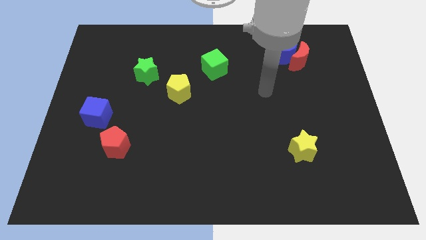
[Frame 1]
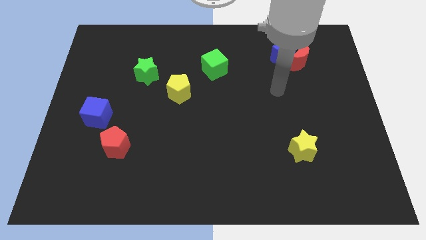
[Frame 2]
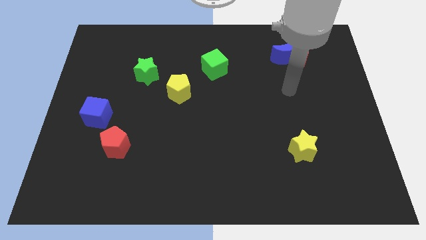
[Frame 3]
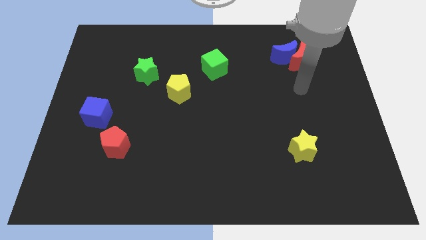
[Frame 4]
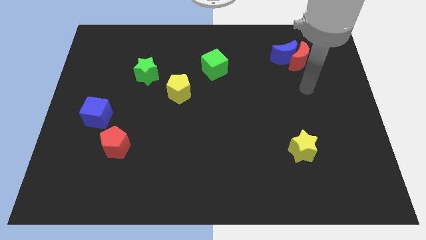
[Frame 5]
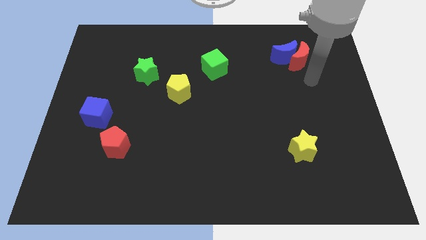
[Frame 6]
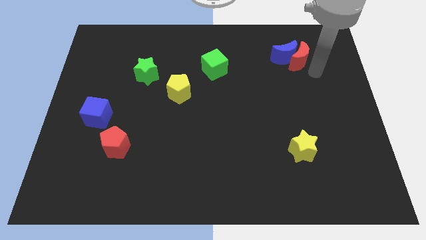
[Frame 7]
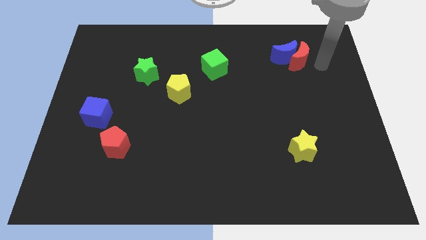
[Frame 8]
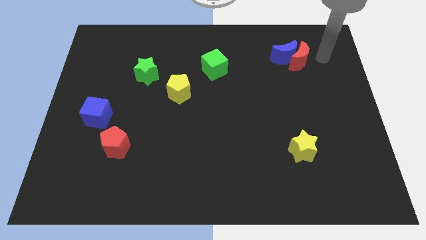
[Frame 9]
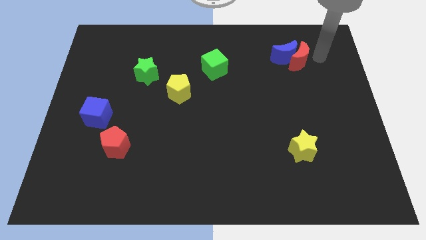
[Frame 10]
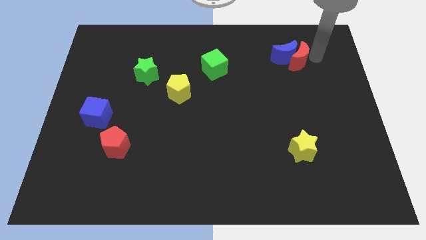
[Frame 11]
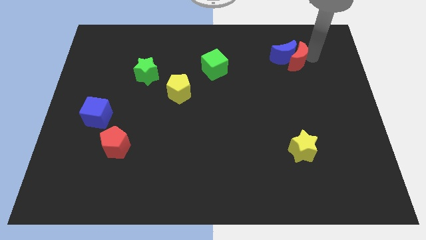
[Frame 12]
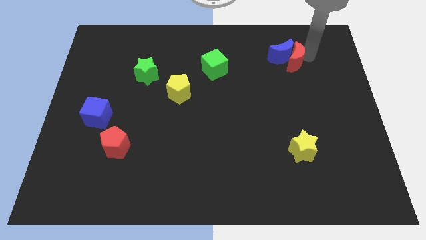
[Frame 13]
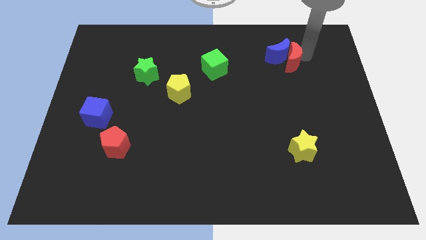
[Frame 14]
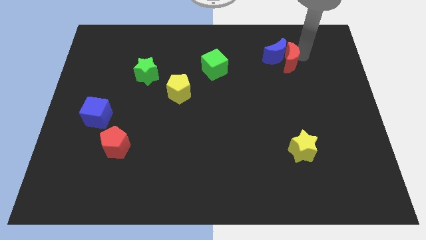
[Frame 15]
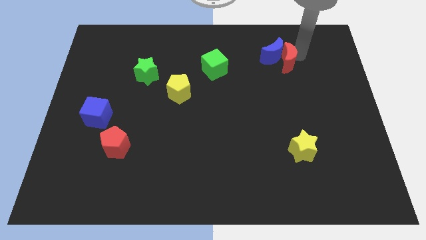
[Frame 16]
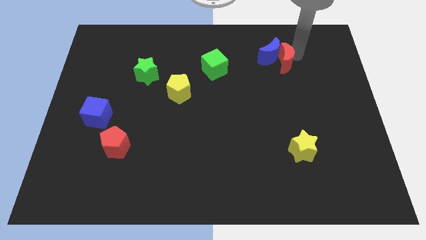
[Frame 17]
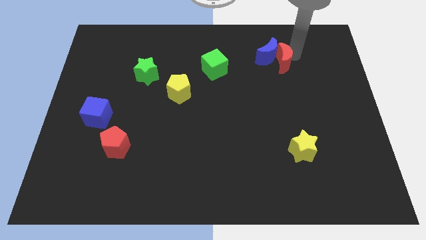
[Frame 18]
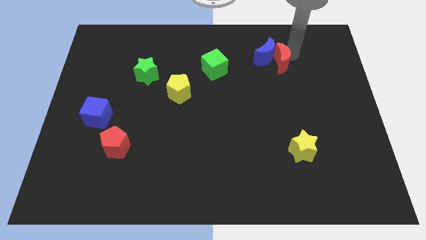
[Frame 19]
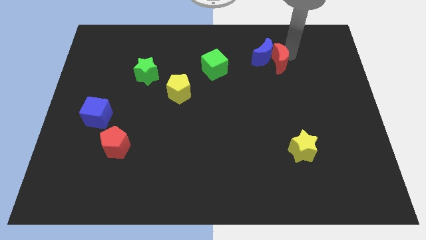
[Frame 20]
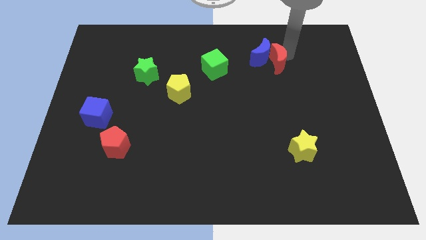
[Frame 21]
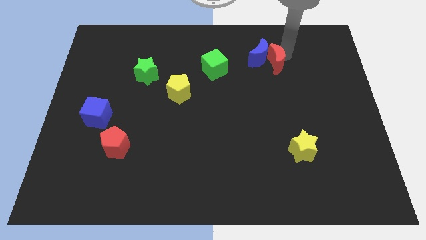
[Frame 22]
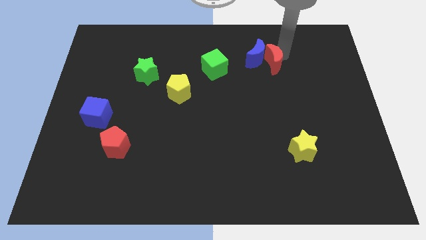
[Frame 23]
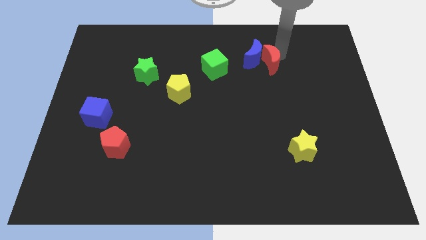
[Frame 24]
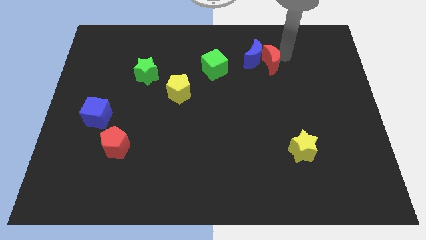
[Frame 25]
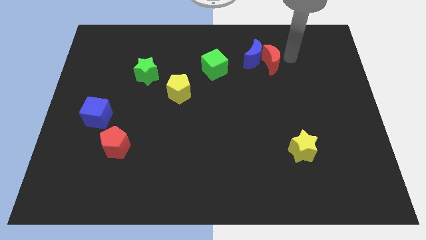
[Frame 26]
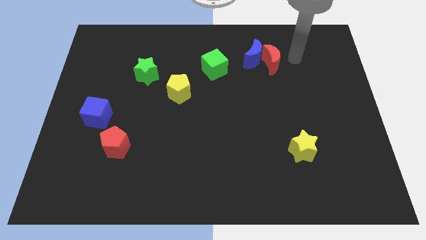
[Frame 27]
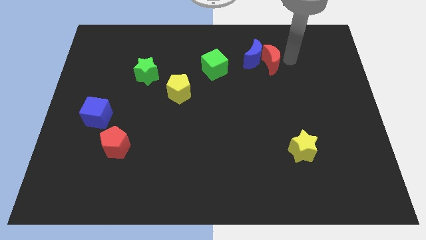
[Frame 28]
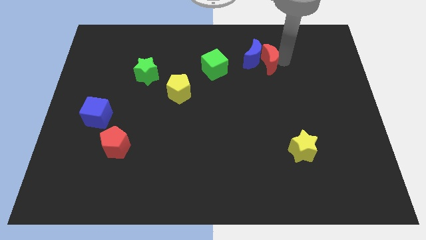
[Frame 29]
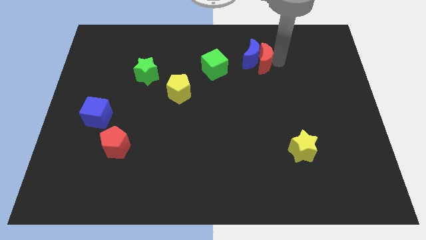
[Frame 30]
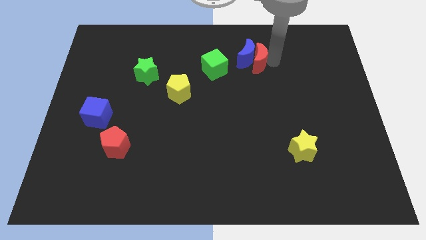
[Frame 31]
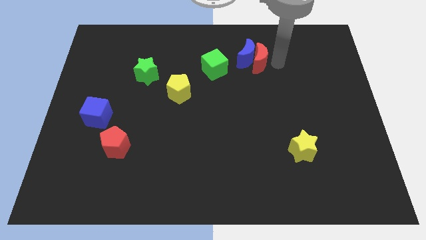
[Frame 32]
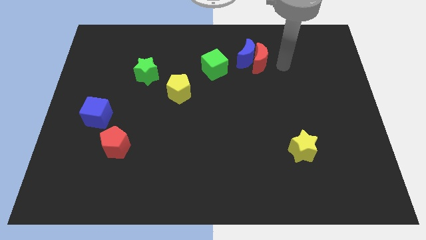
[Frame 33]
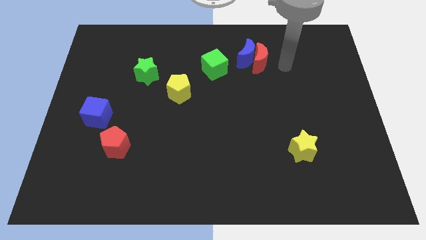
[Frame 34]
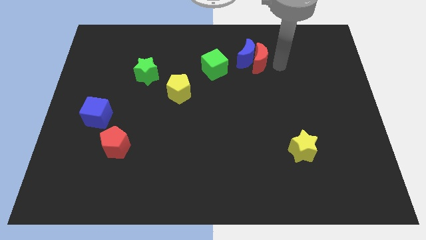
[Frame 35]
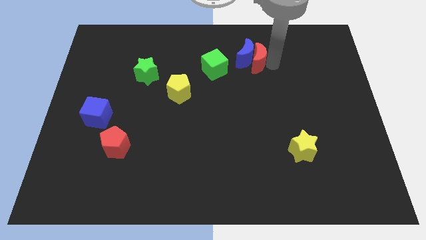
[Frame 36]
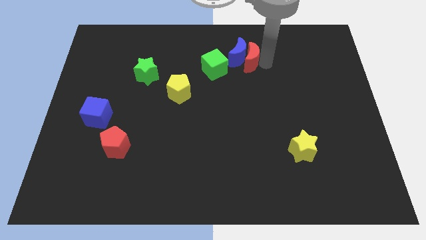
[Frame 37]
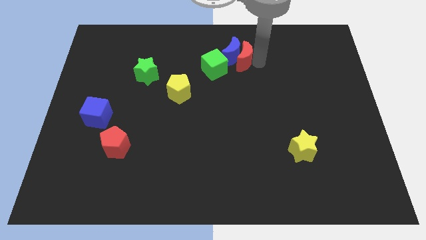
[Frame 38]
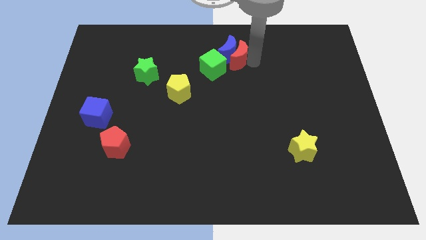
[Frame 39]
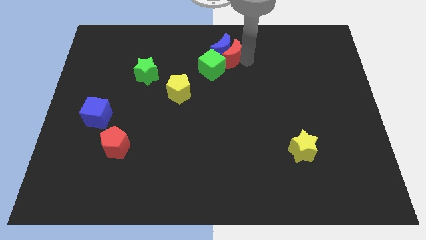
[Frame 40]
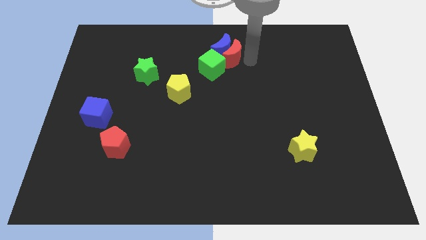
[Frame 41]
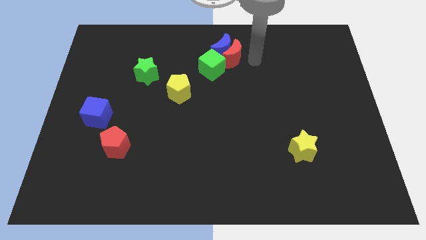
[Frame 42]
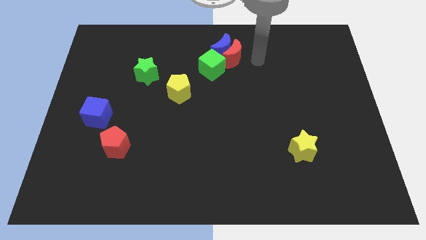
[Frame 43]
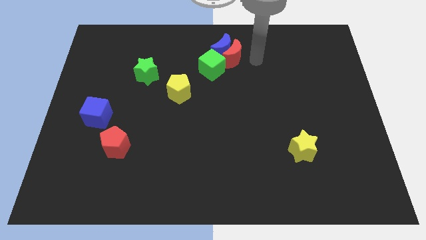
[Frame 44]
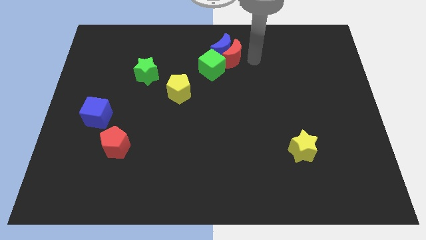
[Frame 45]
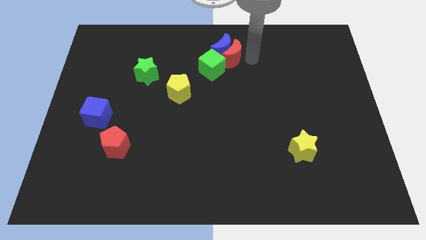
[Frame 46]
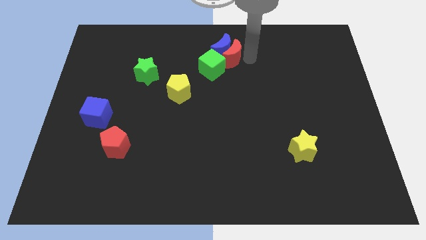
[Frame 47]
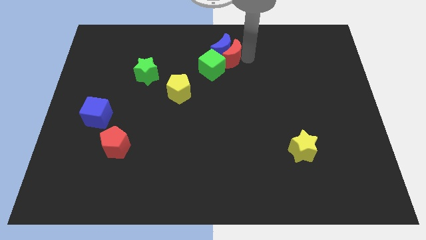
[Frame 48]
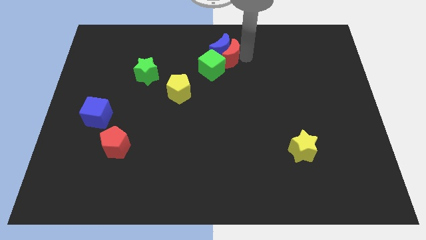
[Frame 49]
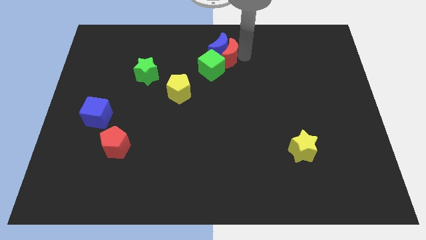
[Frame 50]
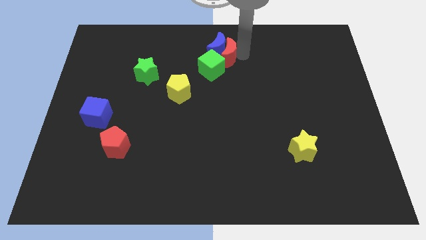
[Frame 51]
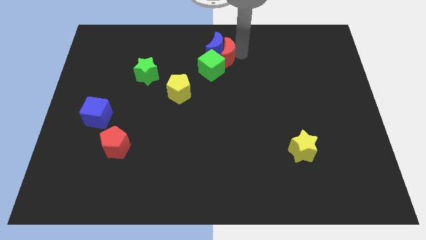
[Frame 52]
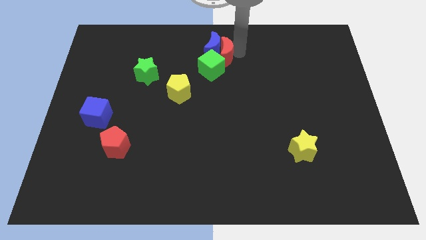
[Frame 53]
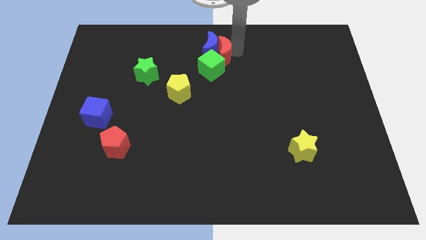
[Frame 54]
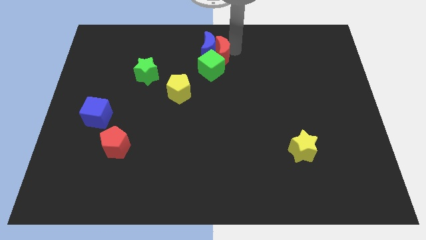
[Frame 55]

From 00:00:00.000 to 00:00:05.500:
move the red moon left

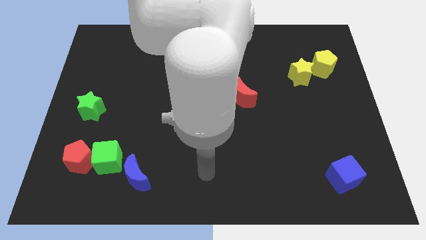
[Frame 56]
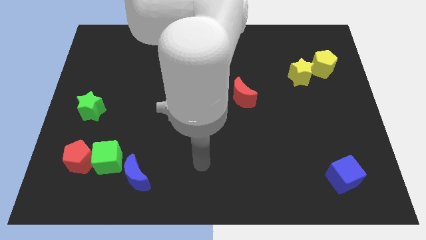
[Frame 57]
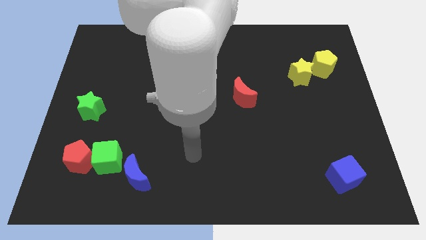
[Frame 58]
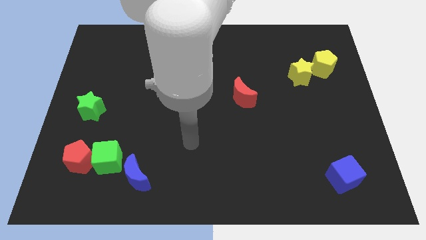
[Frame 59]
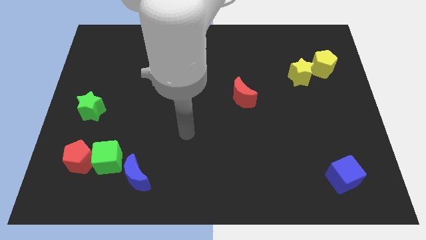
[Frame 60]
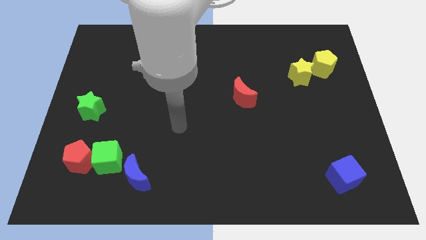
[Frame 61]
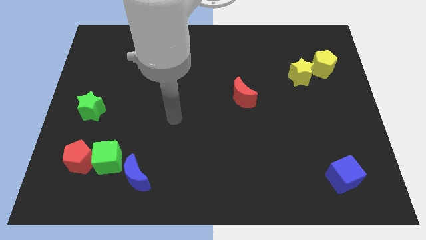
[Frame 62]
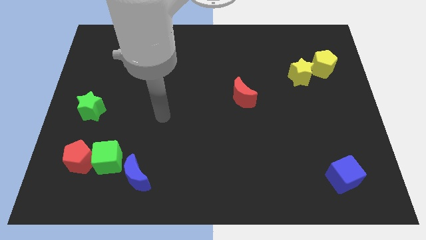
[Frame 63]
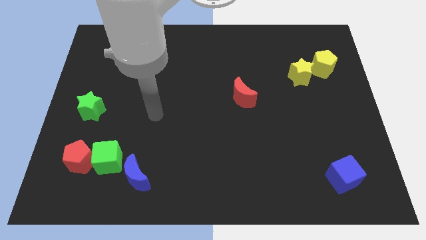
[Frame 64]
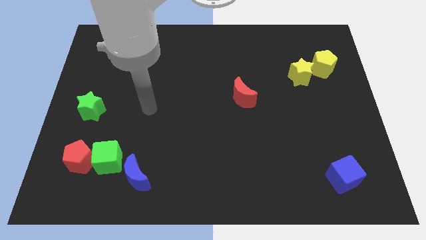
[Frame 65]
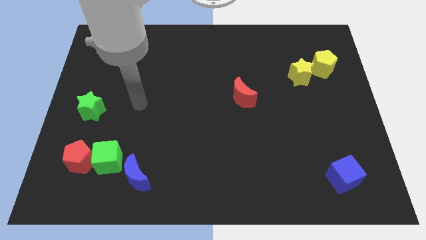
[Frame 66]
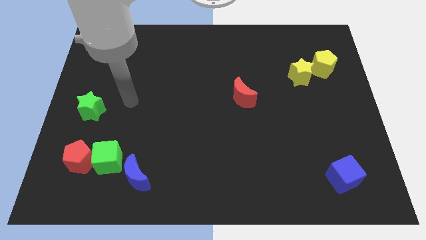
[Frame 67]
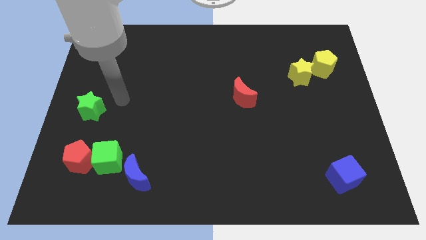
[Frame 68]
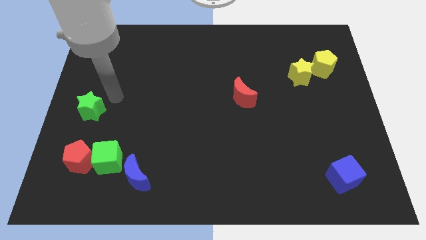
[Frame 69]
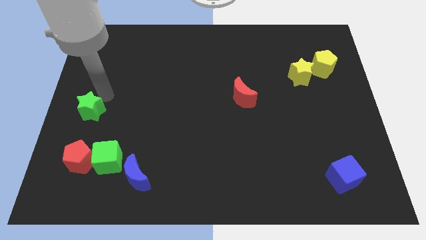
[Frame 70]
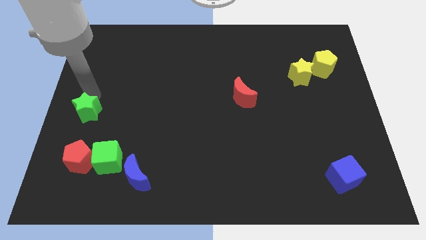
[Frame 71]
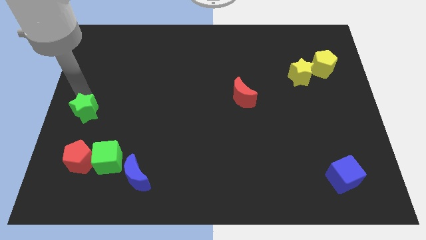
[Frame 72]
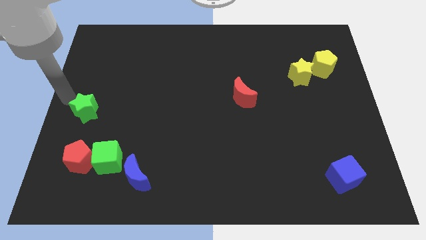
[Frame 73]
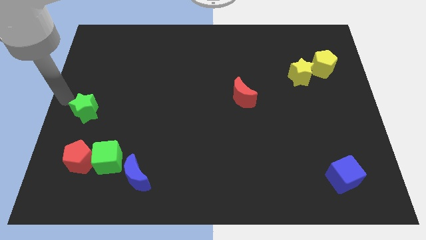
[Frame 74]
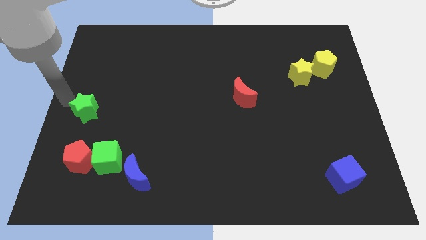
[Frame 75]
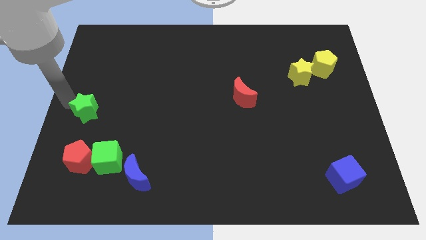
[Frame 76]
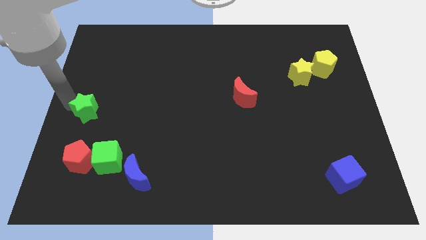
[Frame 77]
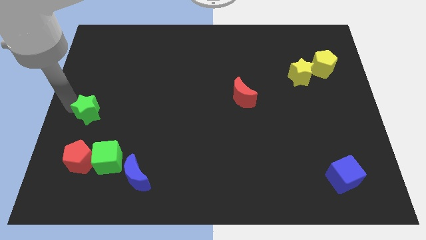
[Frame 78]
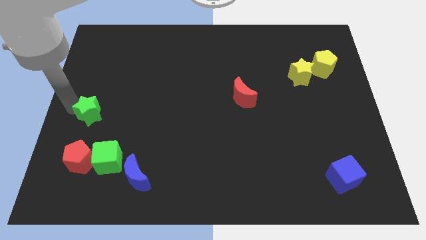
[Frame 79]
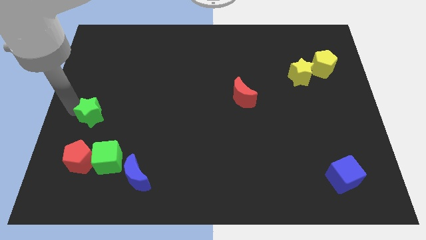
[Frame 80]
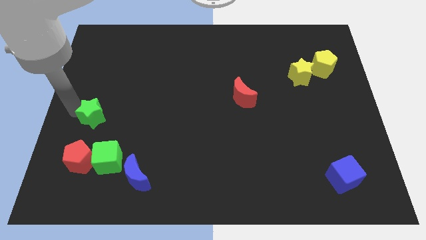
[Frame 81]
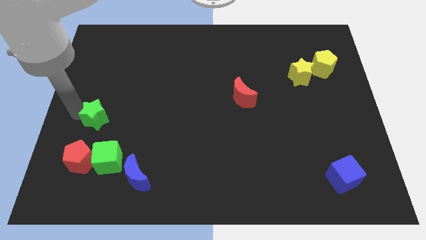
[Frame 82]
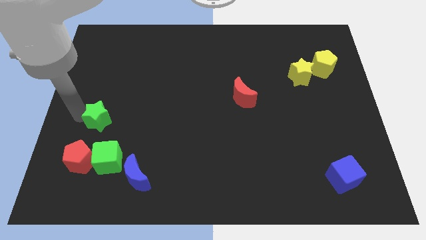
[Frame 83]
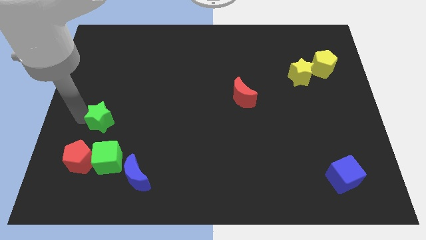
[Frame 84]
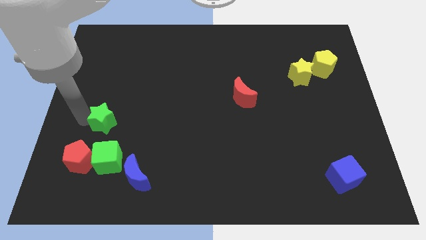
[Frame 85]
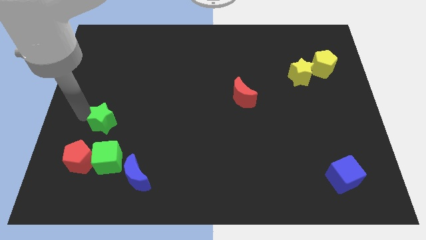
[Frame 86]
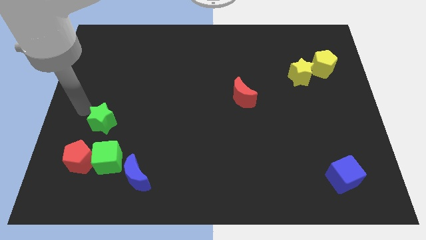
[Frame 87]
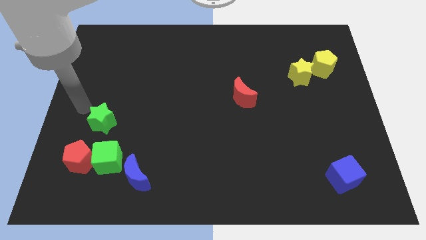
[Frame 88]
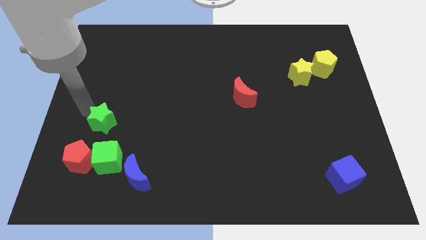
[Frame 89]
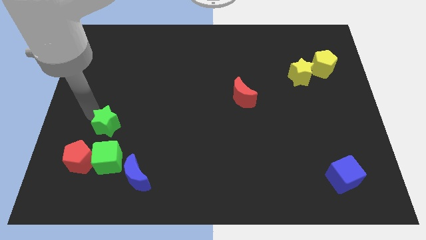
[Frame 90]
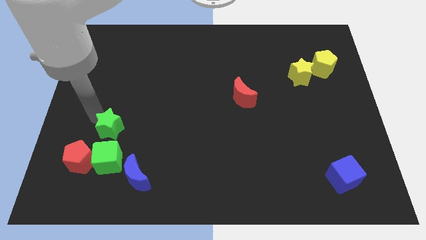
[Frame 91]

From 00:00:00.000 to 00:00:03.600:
slightly push the green star diagonally down and right
